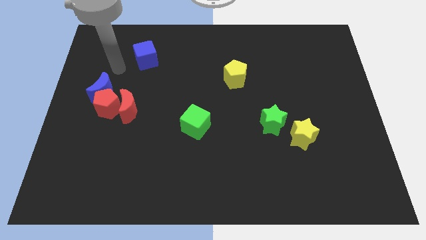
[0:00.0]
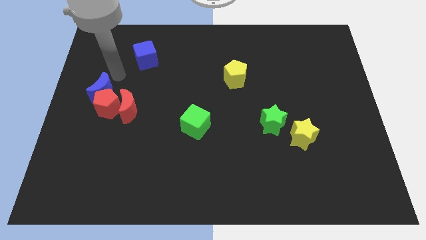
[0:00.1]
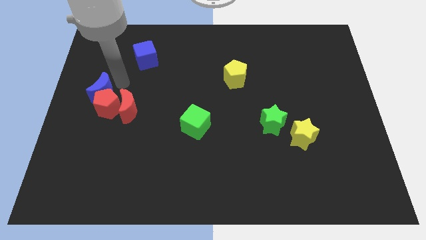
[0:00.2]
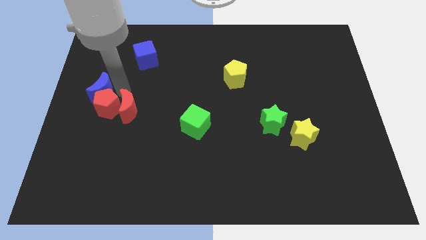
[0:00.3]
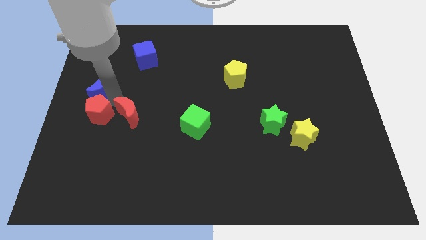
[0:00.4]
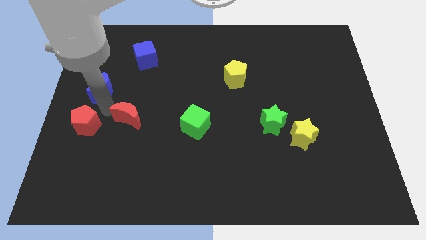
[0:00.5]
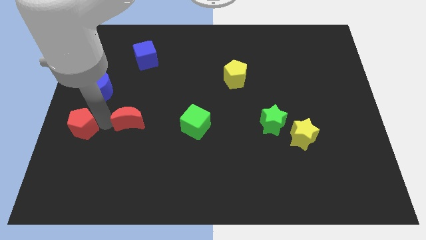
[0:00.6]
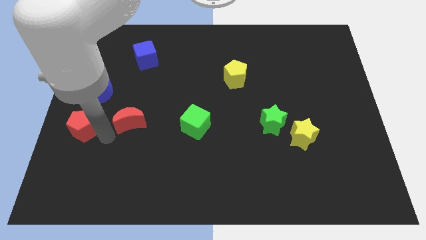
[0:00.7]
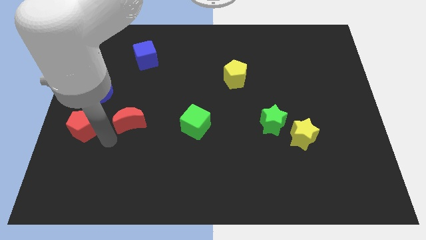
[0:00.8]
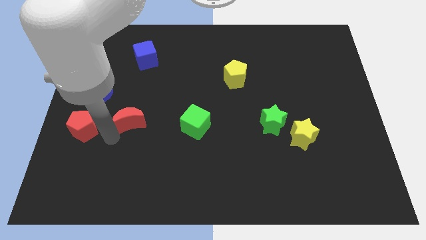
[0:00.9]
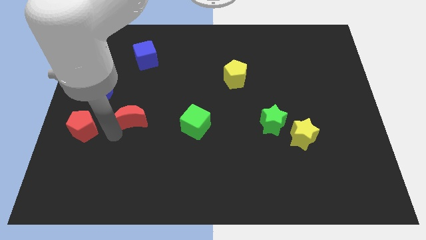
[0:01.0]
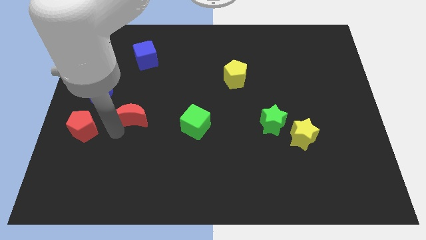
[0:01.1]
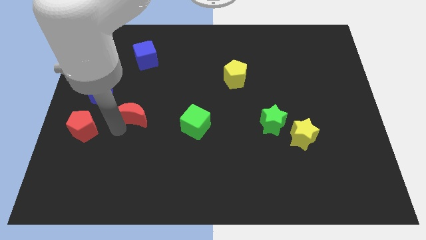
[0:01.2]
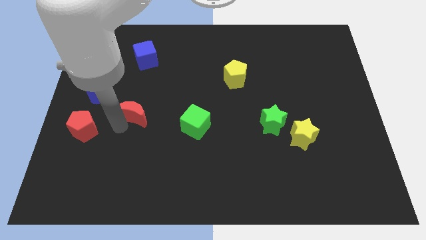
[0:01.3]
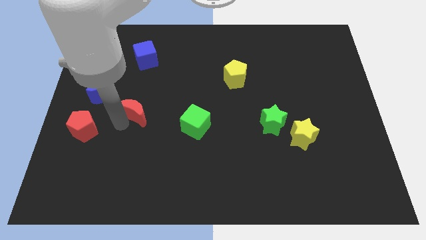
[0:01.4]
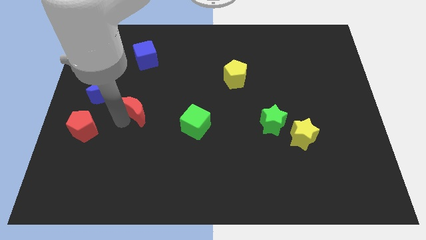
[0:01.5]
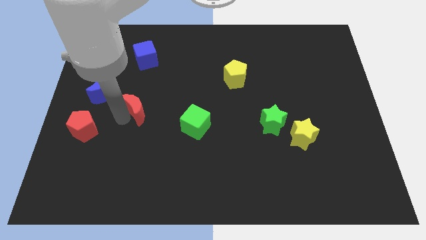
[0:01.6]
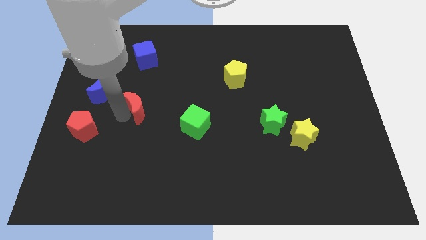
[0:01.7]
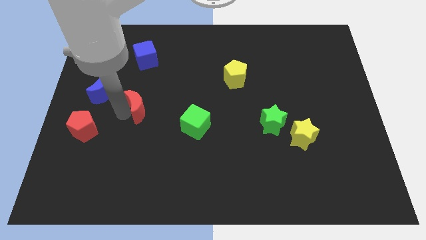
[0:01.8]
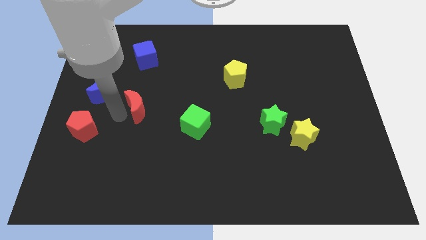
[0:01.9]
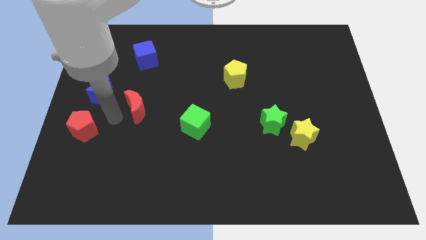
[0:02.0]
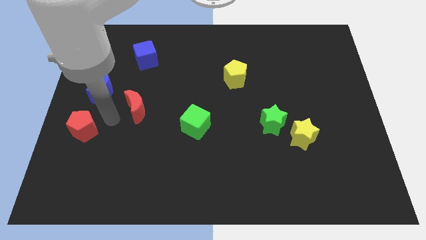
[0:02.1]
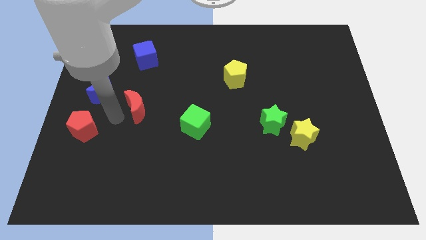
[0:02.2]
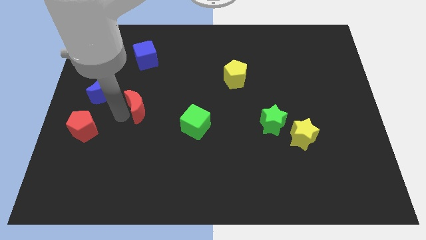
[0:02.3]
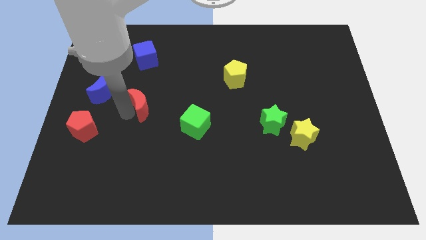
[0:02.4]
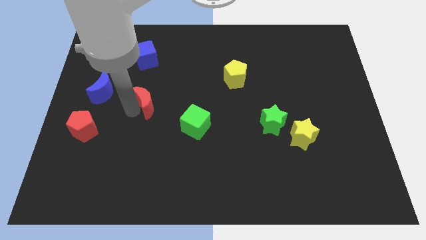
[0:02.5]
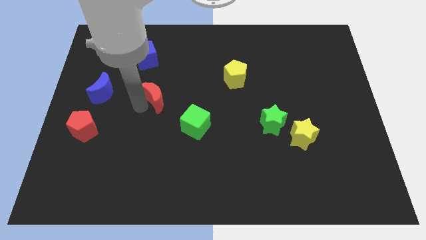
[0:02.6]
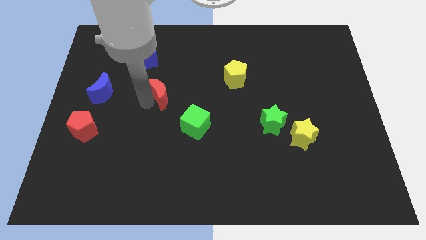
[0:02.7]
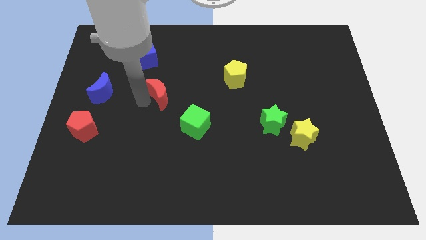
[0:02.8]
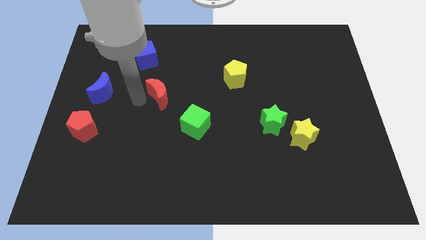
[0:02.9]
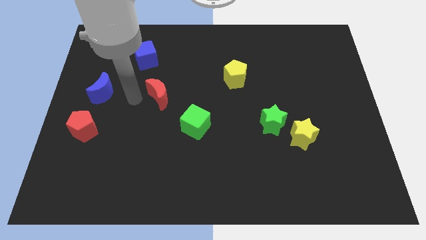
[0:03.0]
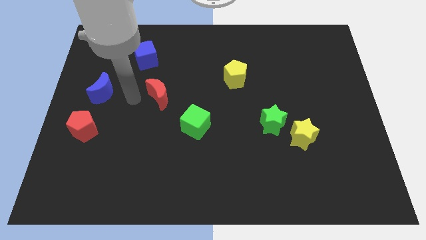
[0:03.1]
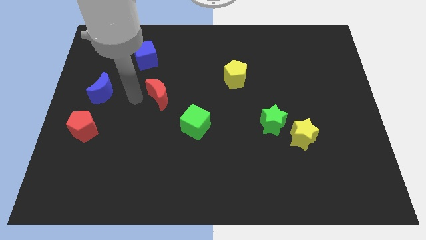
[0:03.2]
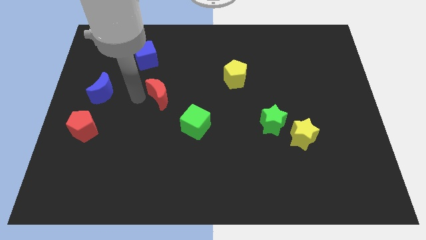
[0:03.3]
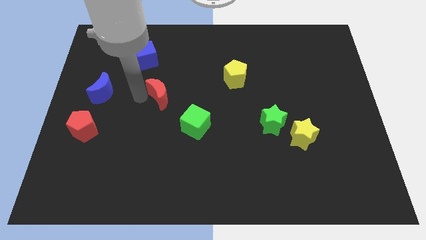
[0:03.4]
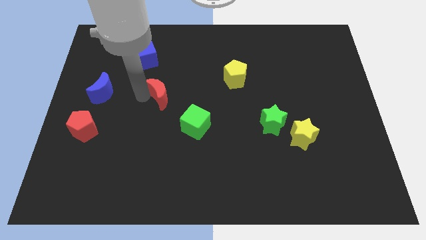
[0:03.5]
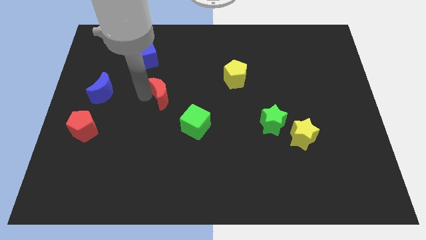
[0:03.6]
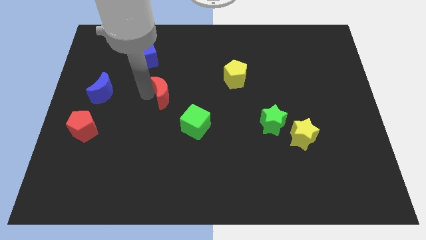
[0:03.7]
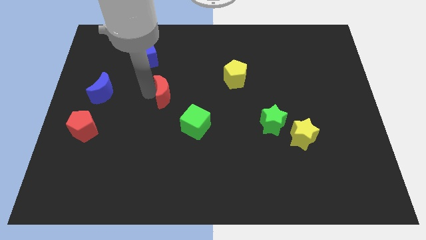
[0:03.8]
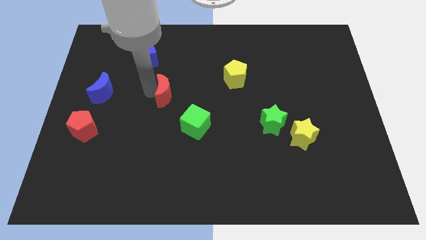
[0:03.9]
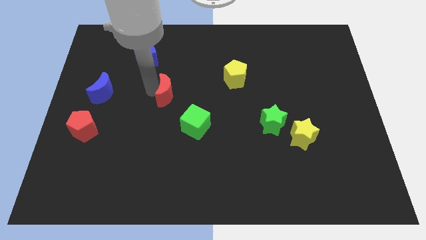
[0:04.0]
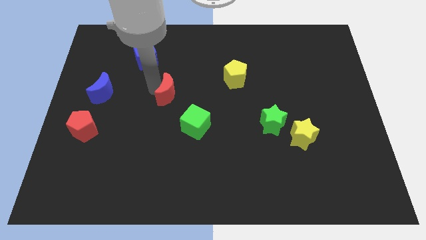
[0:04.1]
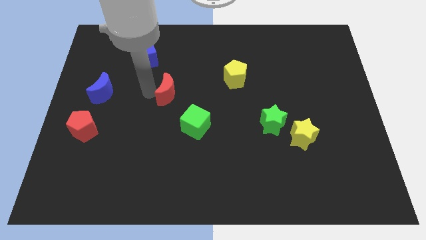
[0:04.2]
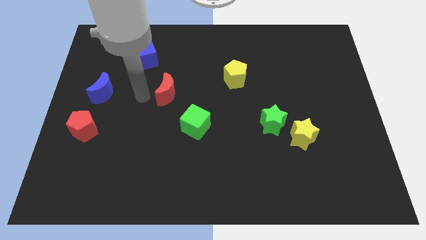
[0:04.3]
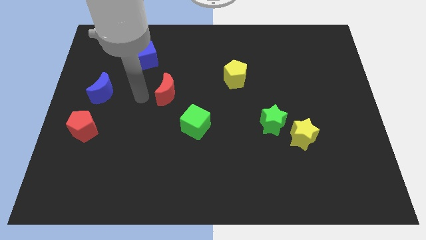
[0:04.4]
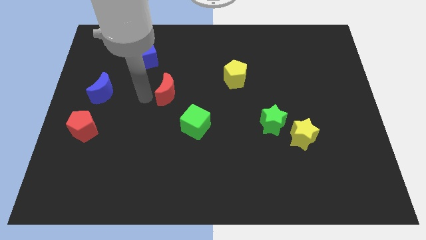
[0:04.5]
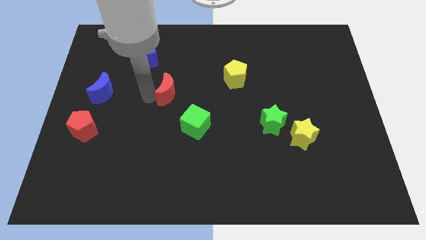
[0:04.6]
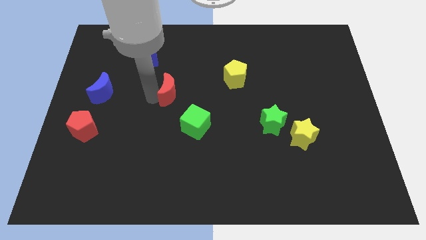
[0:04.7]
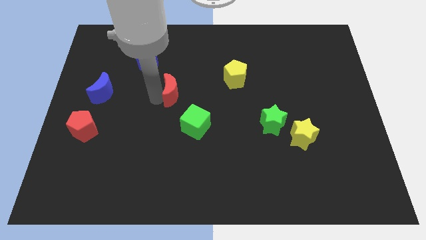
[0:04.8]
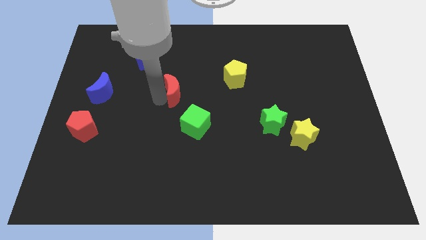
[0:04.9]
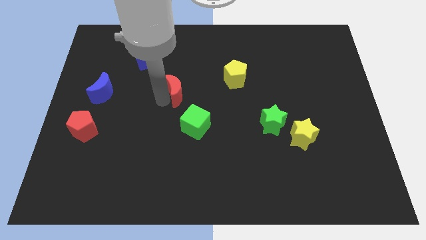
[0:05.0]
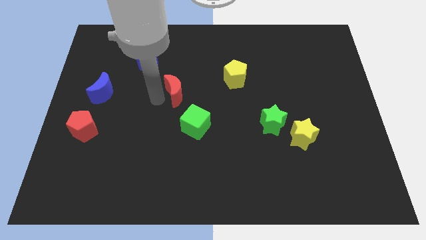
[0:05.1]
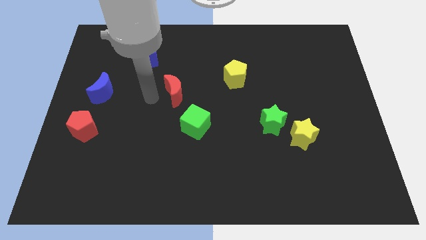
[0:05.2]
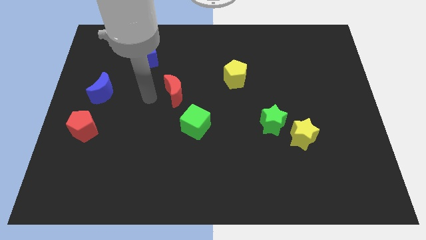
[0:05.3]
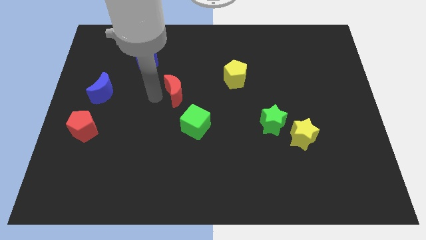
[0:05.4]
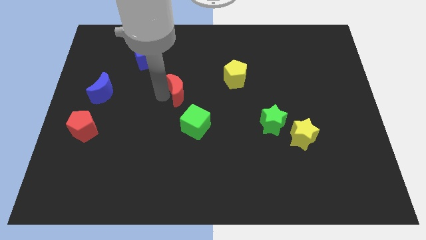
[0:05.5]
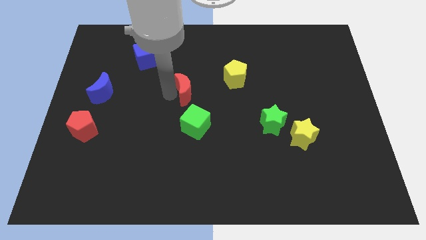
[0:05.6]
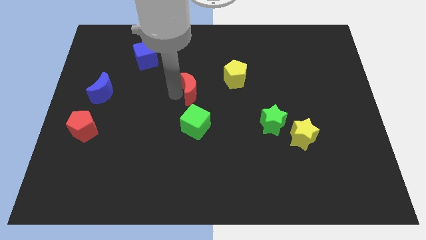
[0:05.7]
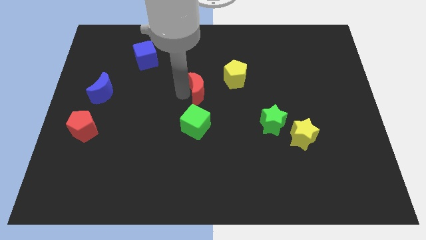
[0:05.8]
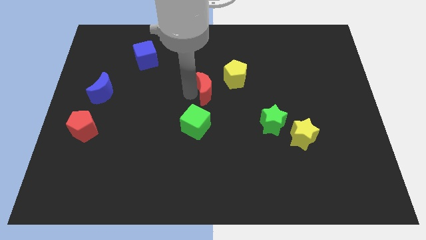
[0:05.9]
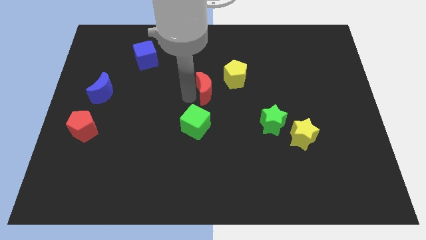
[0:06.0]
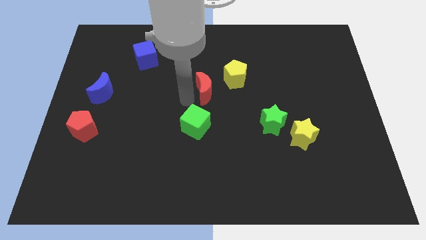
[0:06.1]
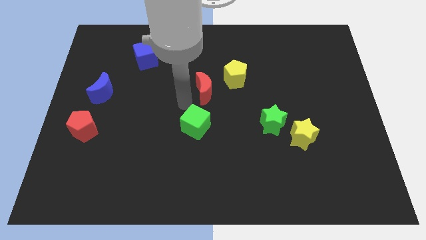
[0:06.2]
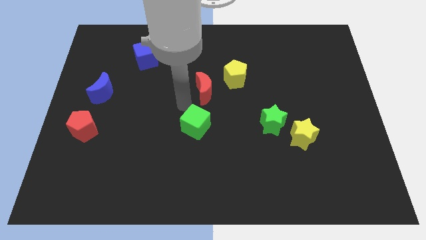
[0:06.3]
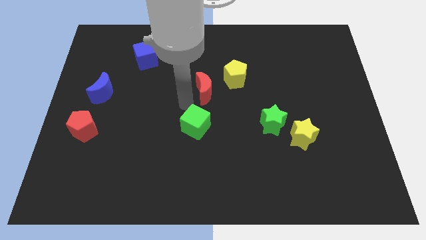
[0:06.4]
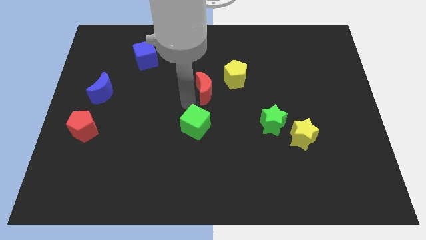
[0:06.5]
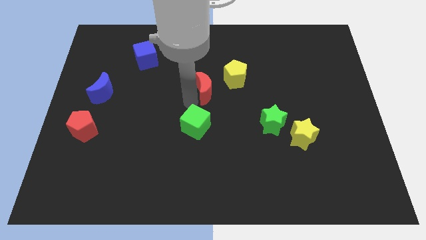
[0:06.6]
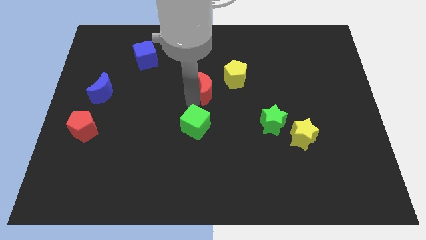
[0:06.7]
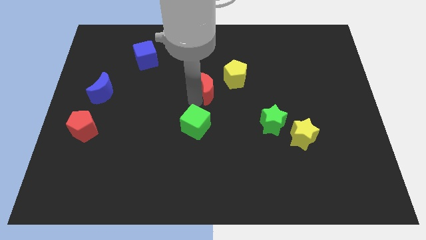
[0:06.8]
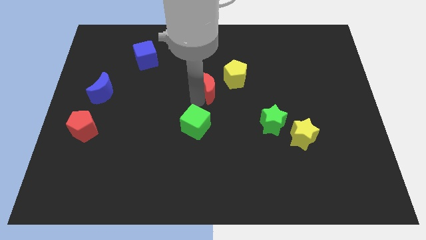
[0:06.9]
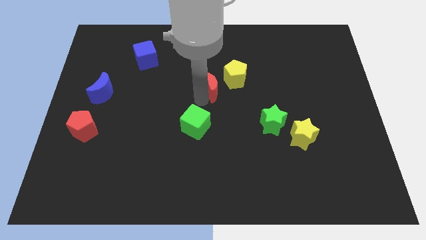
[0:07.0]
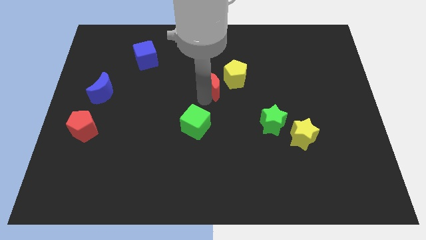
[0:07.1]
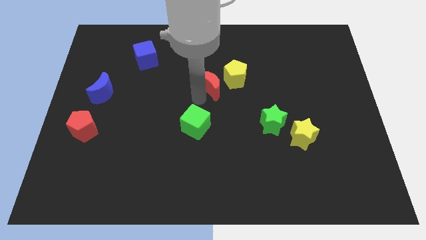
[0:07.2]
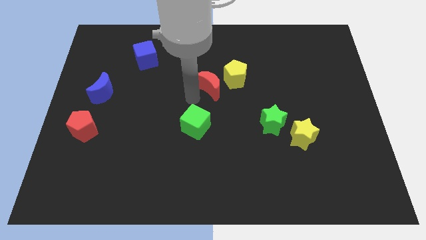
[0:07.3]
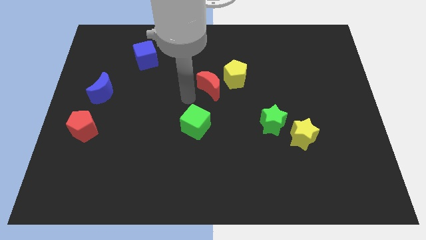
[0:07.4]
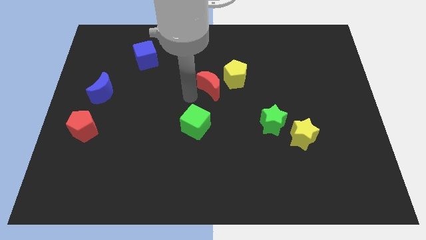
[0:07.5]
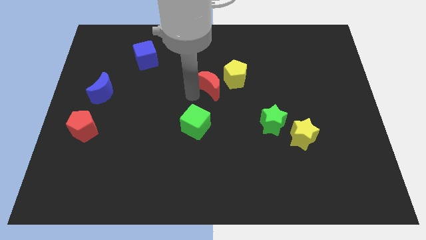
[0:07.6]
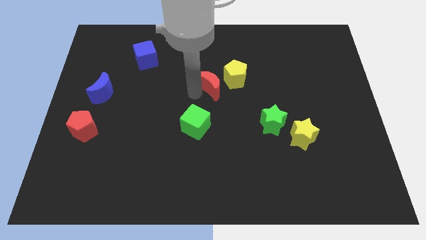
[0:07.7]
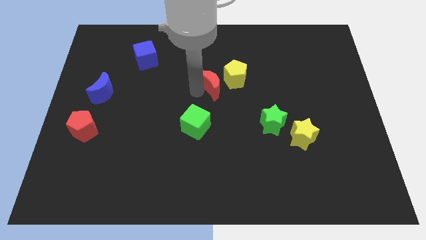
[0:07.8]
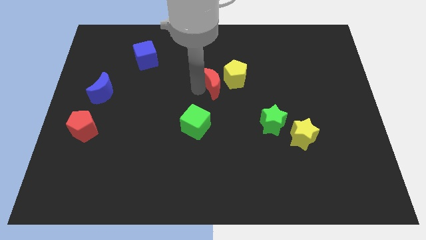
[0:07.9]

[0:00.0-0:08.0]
move the red moon towards the yellow pentagon
